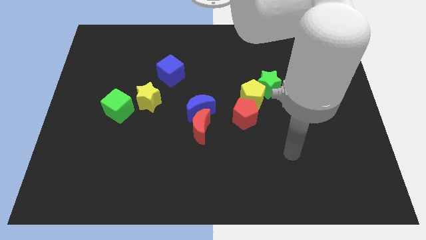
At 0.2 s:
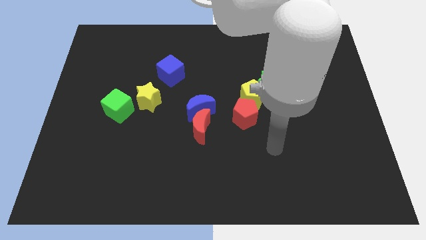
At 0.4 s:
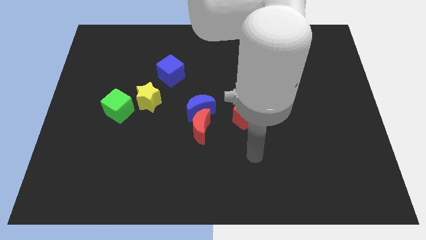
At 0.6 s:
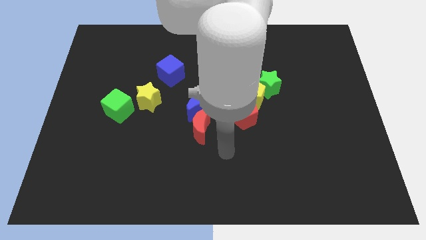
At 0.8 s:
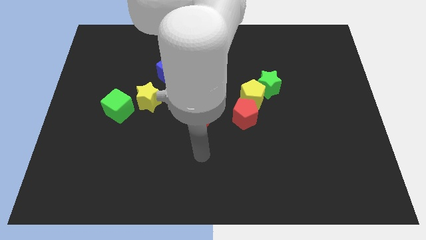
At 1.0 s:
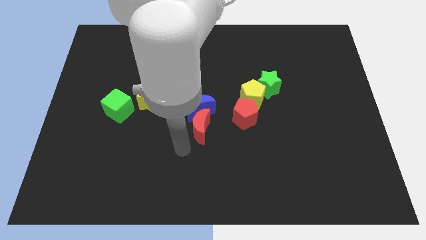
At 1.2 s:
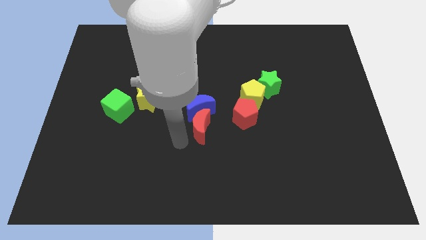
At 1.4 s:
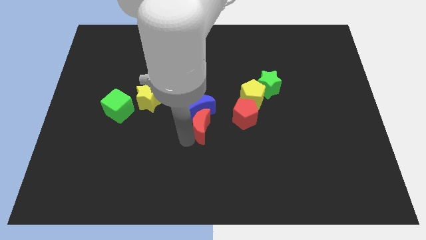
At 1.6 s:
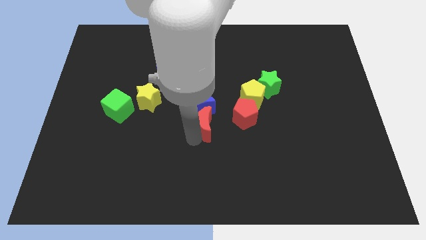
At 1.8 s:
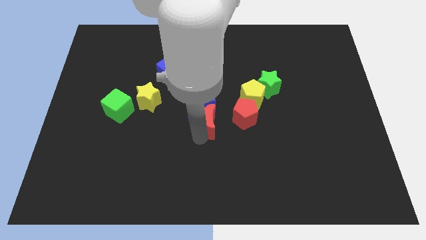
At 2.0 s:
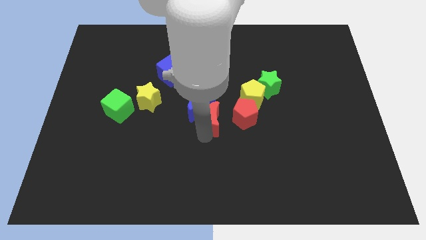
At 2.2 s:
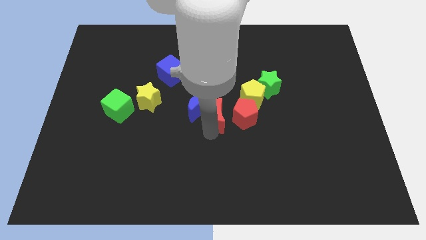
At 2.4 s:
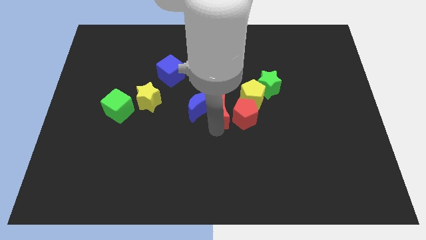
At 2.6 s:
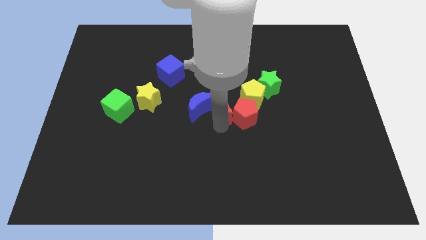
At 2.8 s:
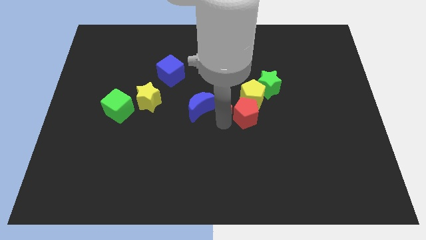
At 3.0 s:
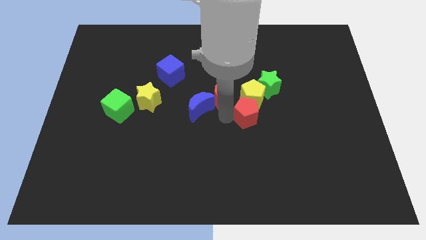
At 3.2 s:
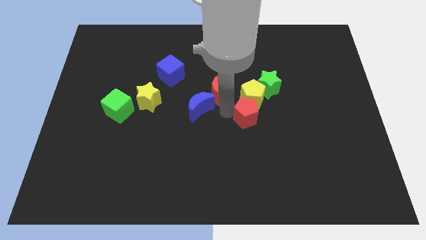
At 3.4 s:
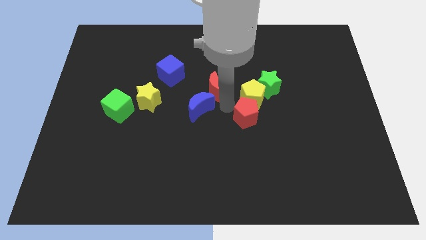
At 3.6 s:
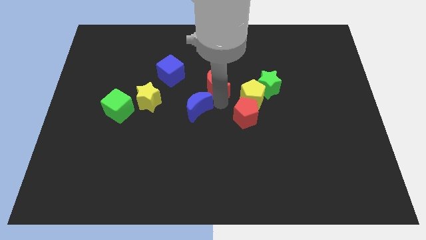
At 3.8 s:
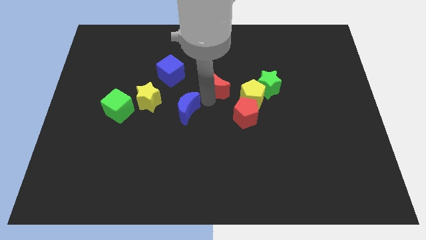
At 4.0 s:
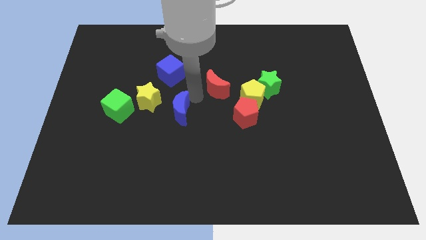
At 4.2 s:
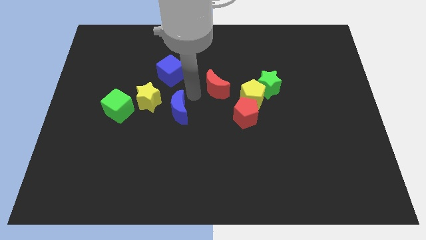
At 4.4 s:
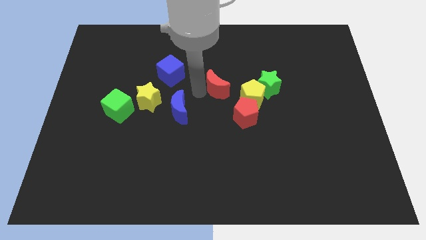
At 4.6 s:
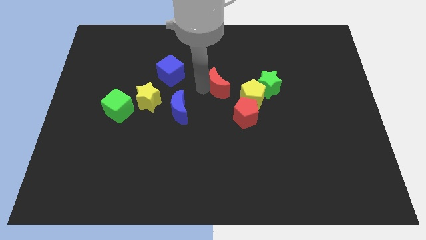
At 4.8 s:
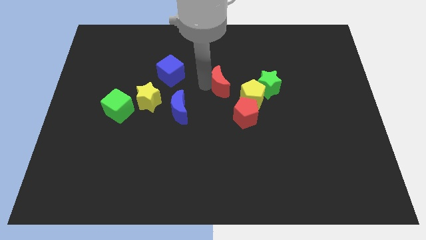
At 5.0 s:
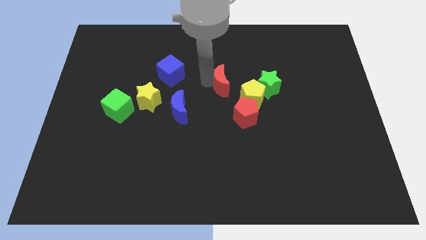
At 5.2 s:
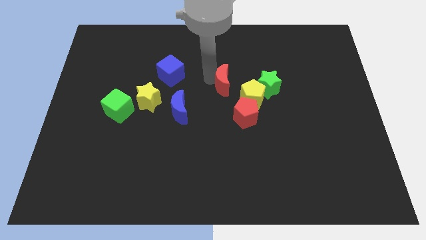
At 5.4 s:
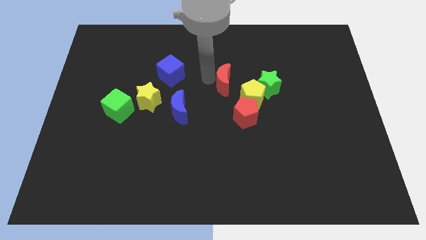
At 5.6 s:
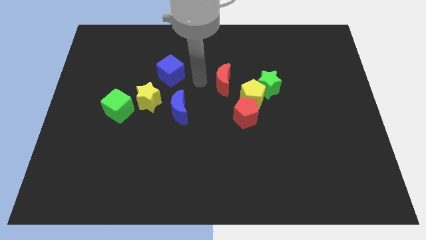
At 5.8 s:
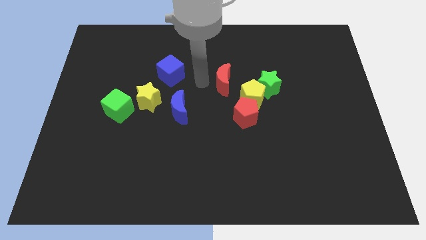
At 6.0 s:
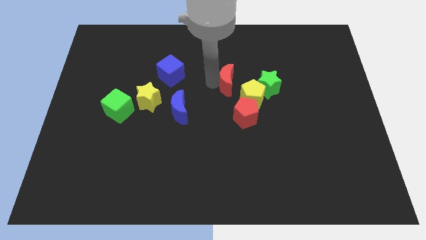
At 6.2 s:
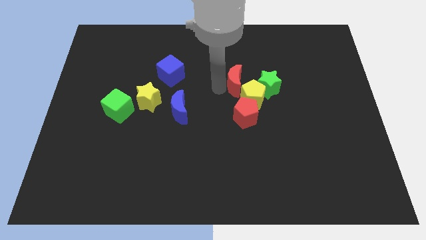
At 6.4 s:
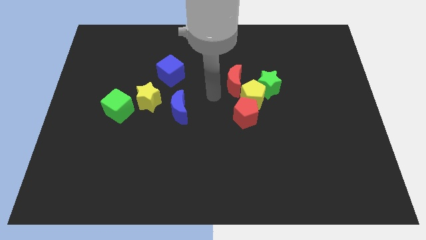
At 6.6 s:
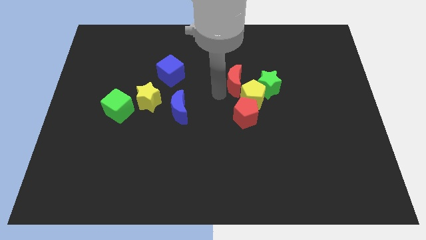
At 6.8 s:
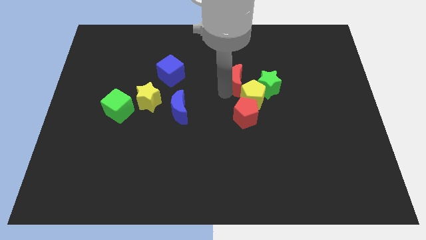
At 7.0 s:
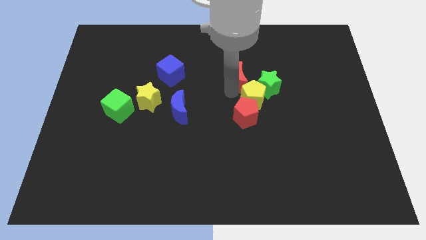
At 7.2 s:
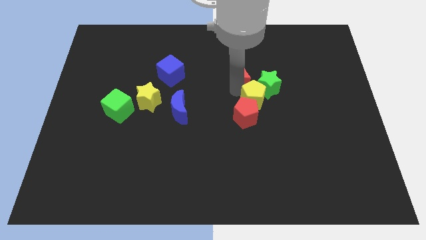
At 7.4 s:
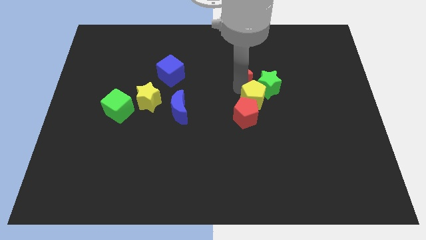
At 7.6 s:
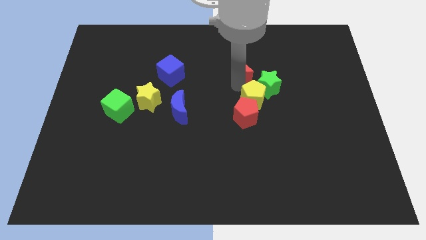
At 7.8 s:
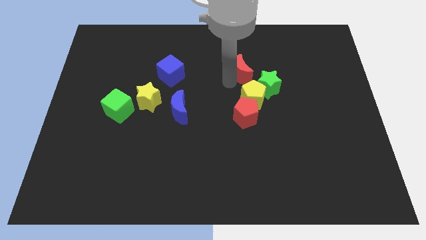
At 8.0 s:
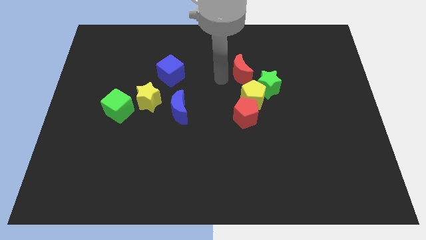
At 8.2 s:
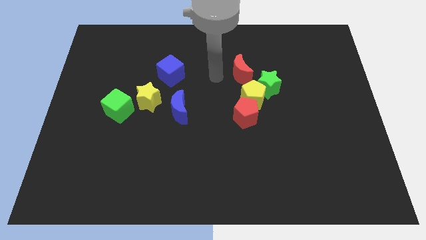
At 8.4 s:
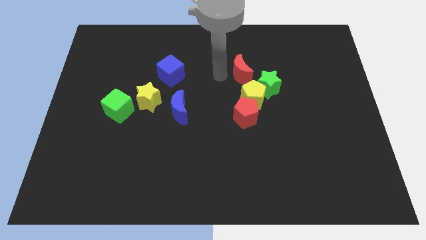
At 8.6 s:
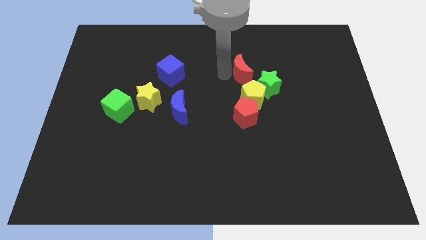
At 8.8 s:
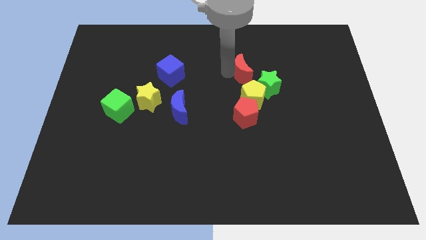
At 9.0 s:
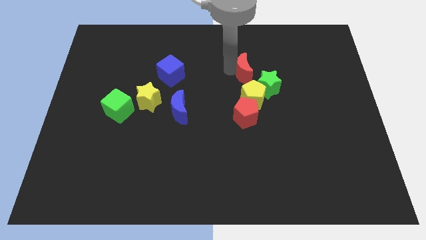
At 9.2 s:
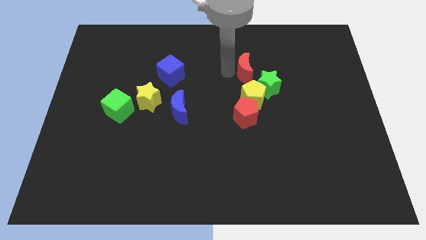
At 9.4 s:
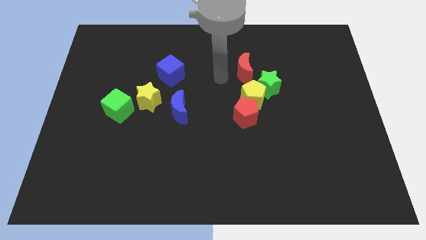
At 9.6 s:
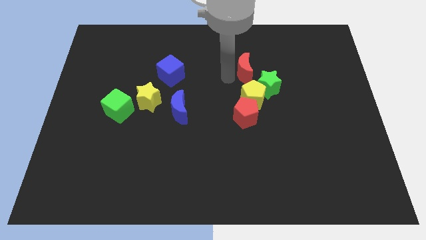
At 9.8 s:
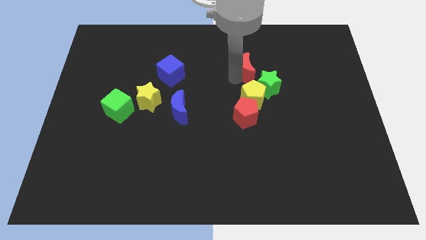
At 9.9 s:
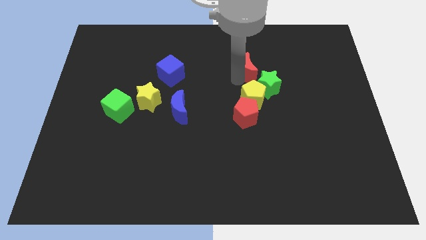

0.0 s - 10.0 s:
move the red moon up and right diagonally

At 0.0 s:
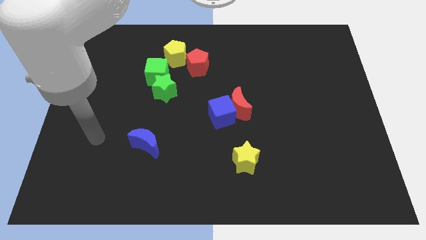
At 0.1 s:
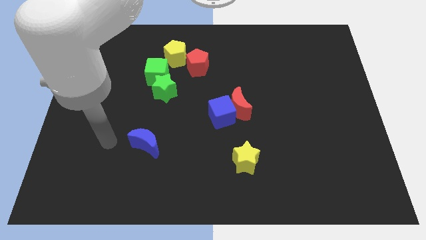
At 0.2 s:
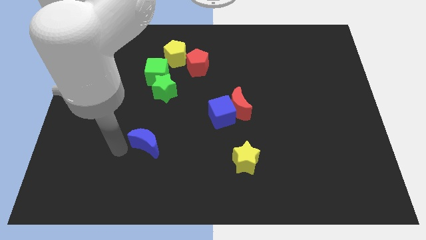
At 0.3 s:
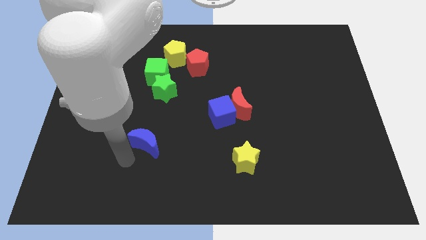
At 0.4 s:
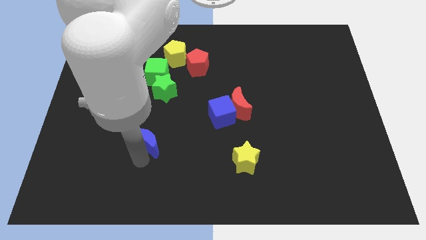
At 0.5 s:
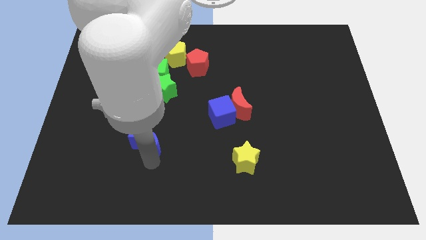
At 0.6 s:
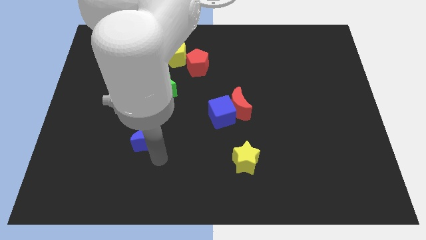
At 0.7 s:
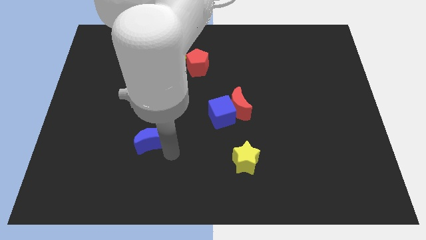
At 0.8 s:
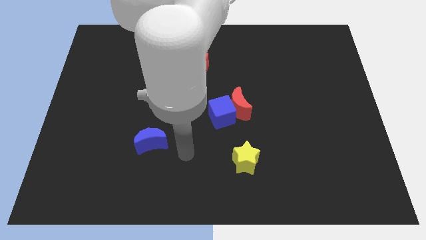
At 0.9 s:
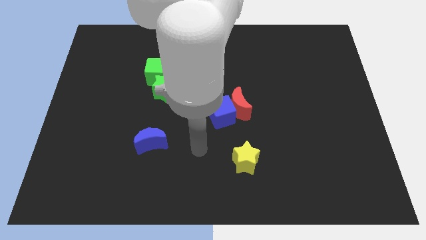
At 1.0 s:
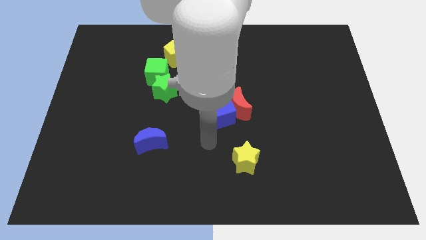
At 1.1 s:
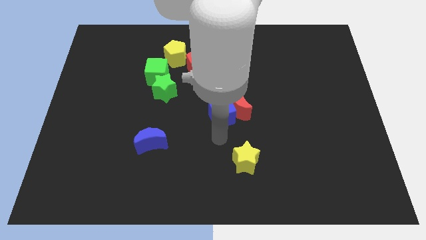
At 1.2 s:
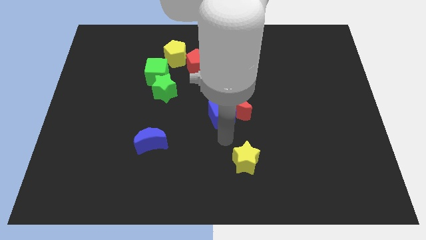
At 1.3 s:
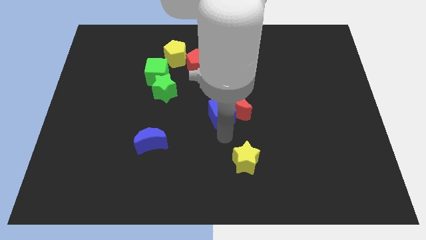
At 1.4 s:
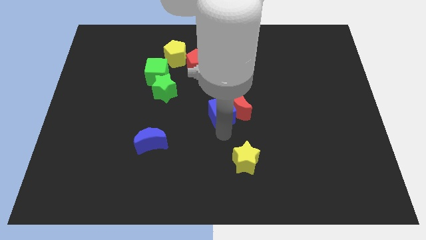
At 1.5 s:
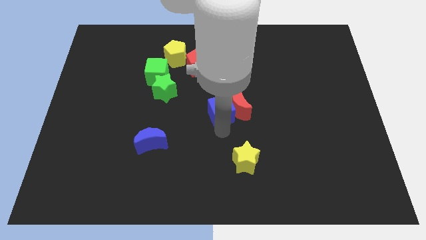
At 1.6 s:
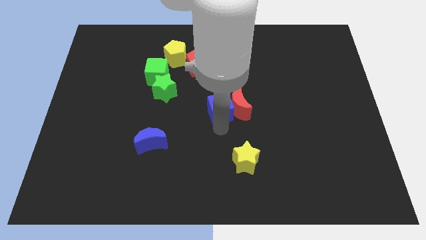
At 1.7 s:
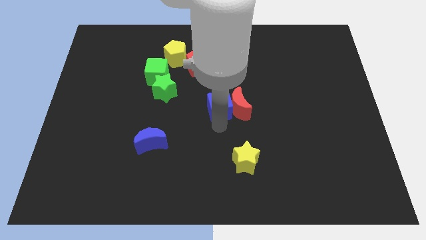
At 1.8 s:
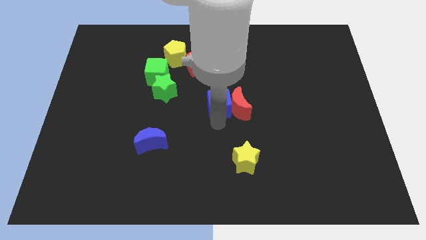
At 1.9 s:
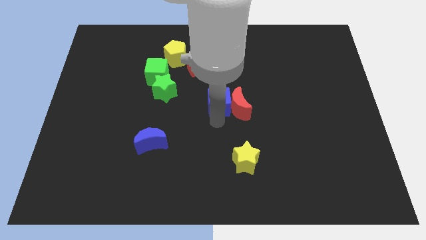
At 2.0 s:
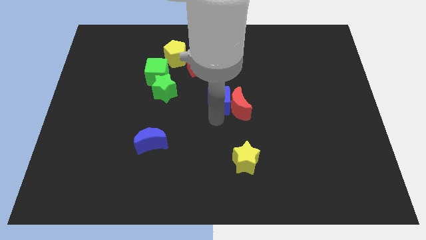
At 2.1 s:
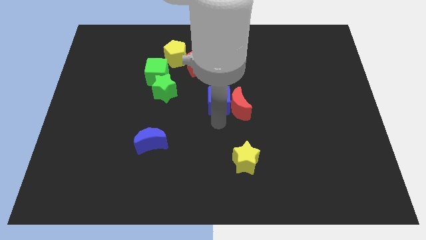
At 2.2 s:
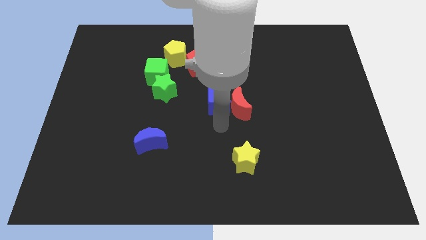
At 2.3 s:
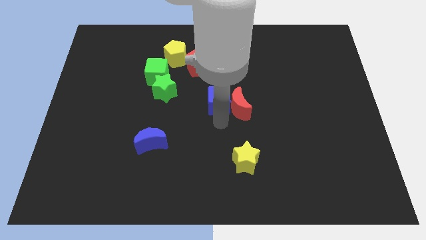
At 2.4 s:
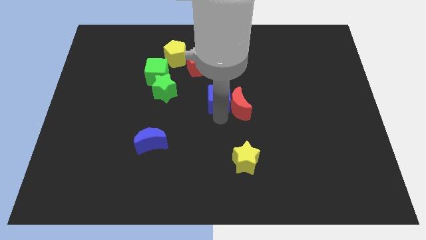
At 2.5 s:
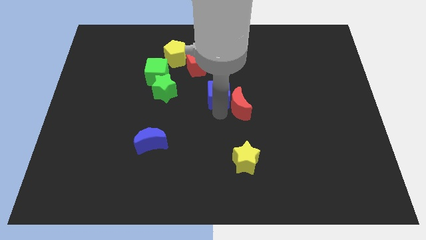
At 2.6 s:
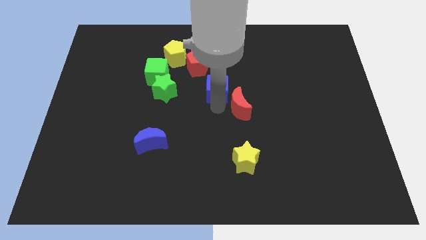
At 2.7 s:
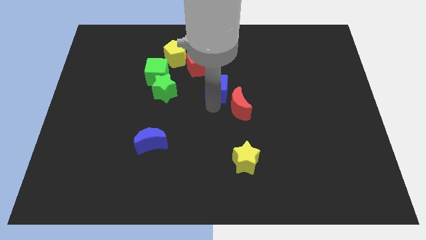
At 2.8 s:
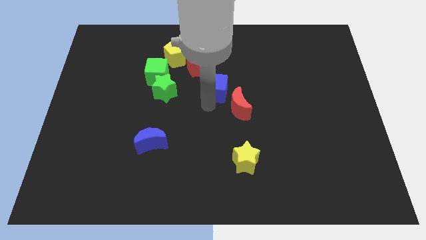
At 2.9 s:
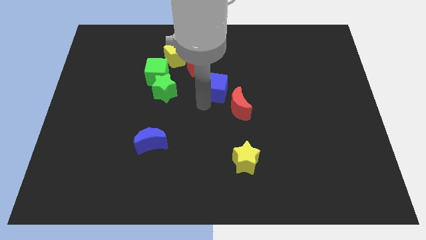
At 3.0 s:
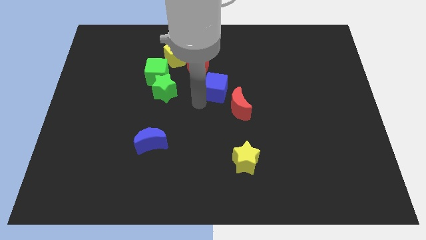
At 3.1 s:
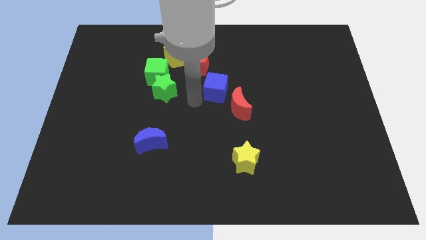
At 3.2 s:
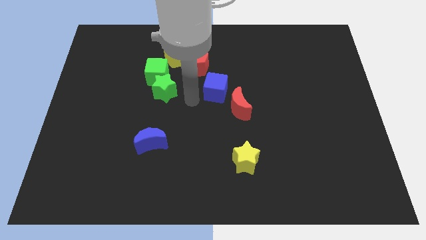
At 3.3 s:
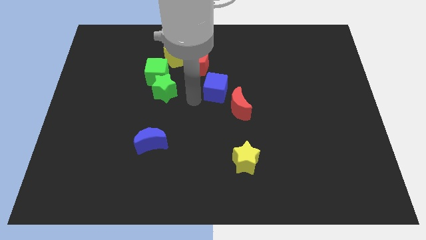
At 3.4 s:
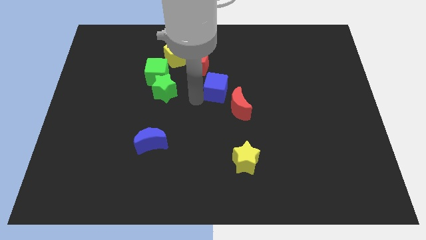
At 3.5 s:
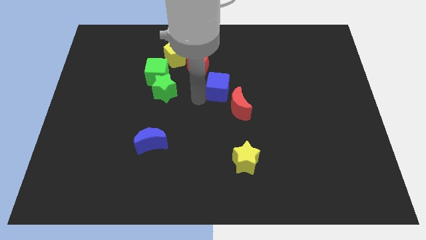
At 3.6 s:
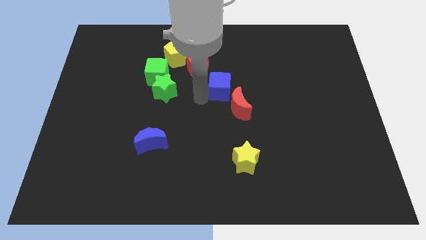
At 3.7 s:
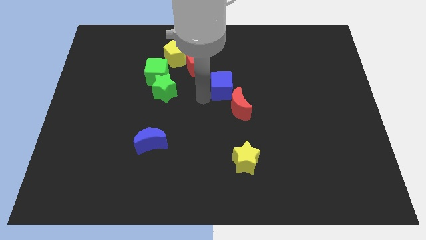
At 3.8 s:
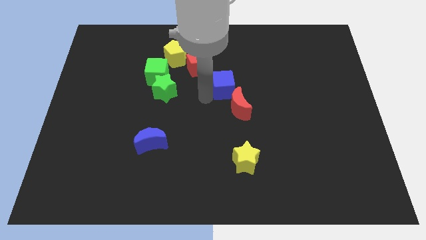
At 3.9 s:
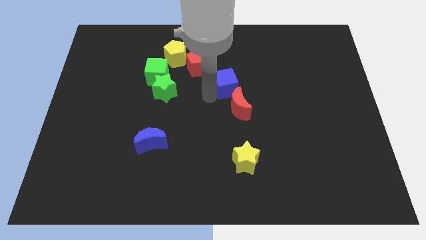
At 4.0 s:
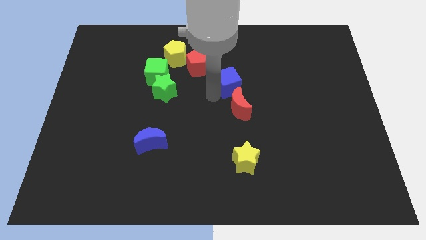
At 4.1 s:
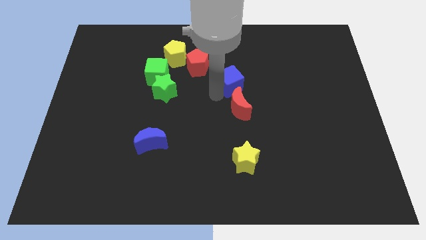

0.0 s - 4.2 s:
move the blue cube a little diagonally upwards and right
